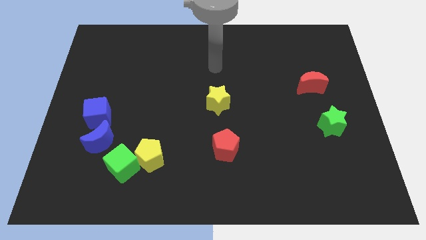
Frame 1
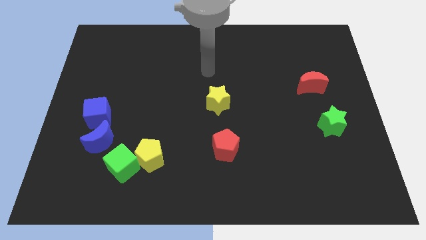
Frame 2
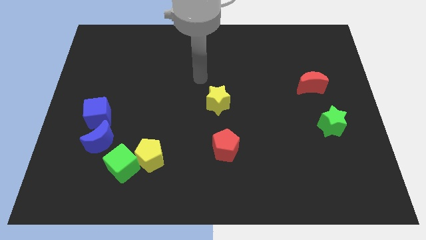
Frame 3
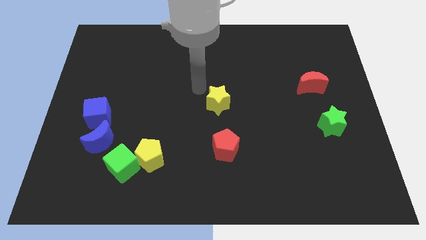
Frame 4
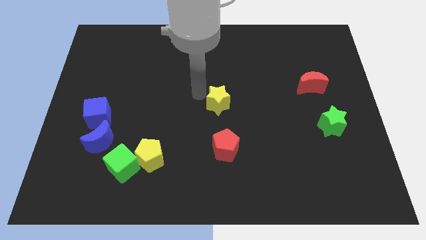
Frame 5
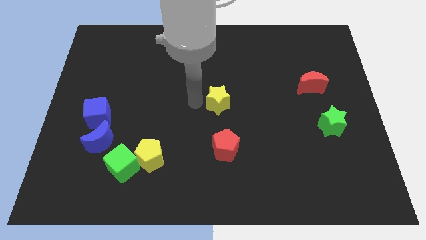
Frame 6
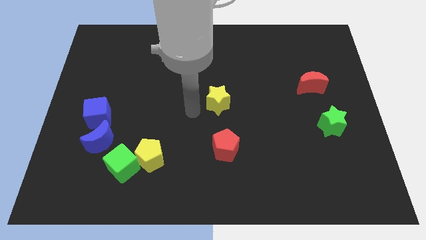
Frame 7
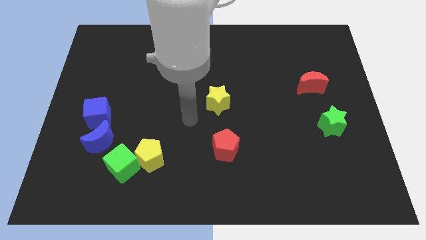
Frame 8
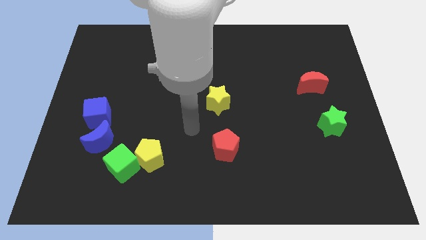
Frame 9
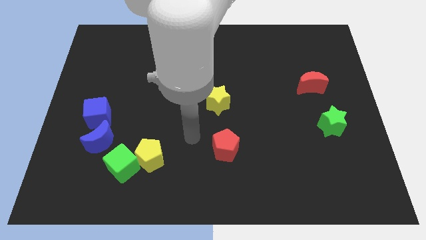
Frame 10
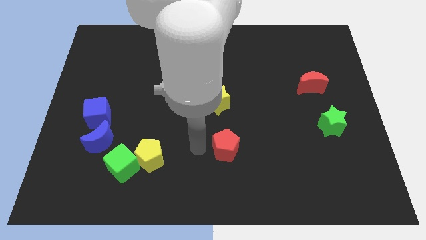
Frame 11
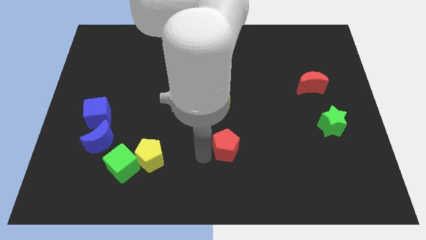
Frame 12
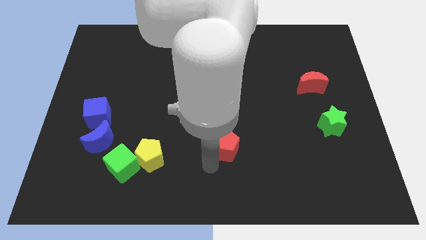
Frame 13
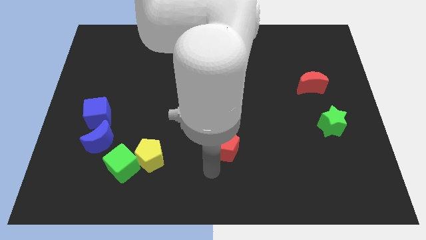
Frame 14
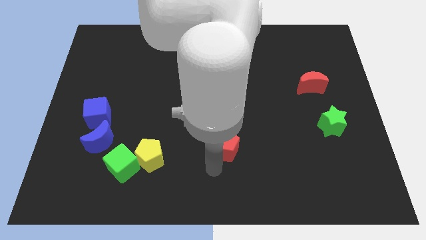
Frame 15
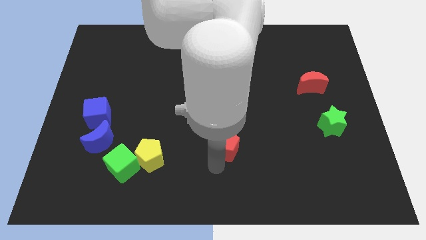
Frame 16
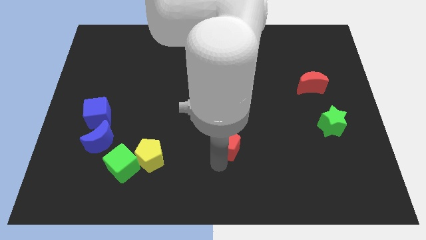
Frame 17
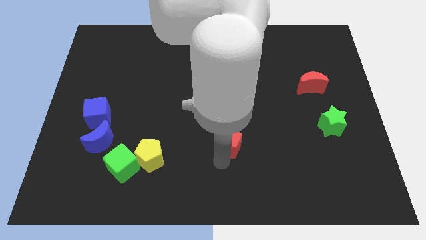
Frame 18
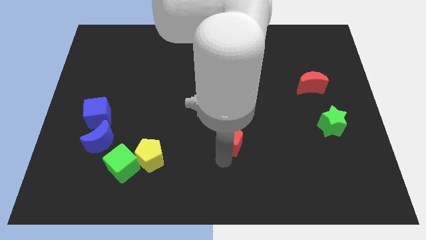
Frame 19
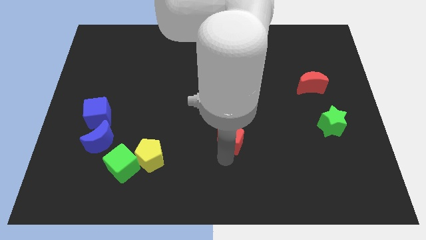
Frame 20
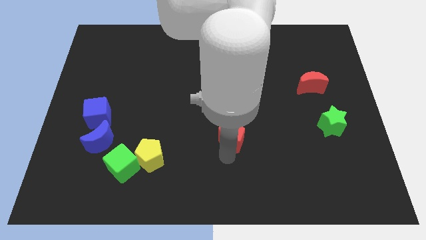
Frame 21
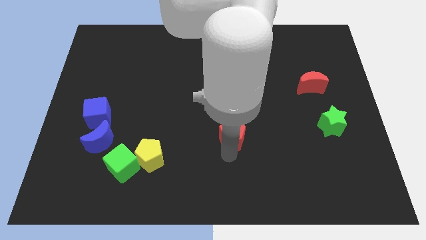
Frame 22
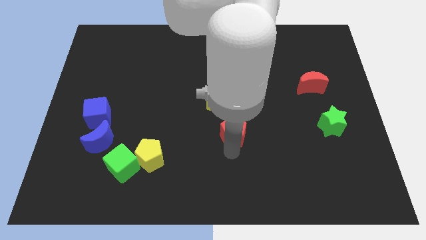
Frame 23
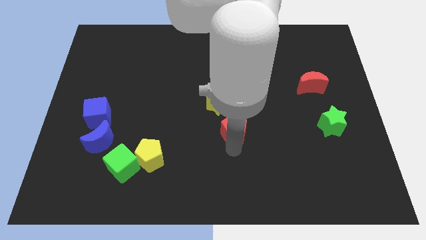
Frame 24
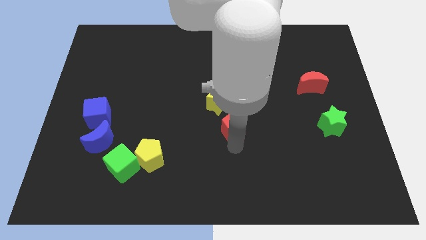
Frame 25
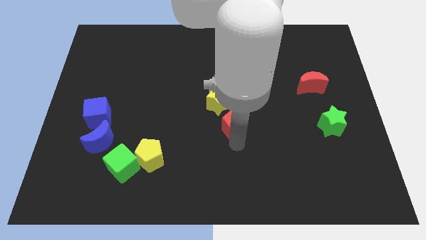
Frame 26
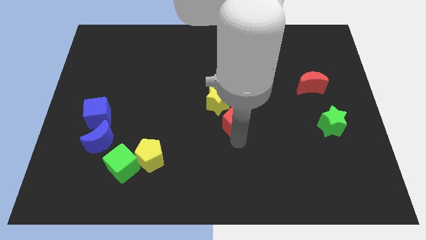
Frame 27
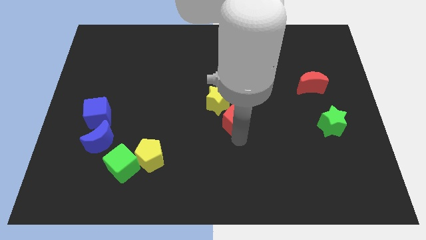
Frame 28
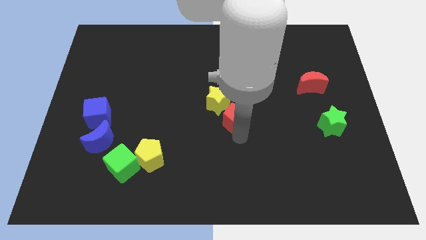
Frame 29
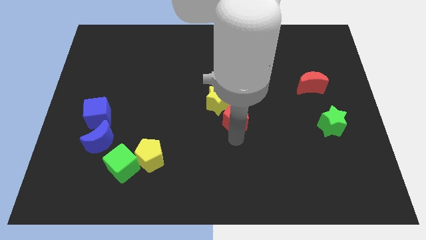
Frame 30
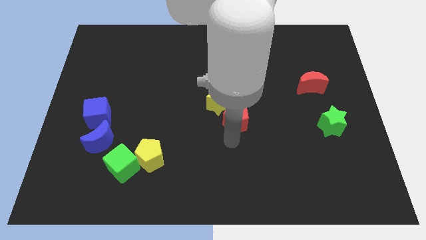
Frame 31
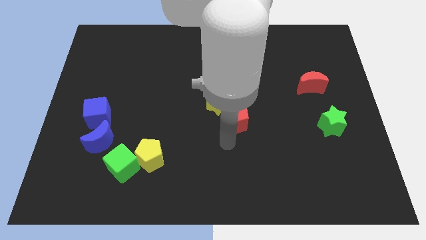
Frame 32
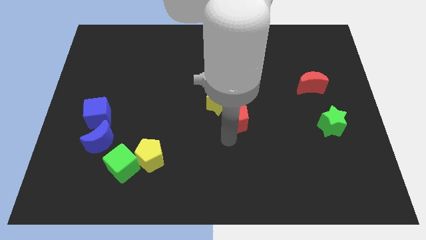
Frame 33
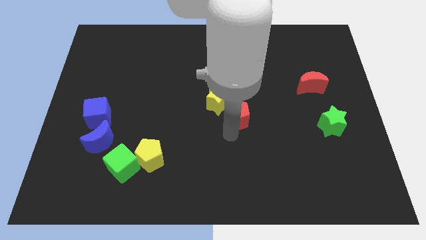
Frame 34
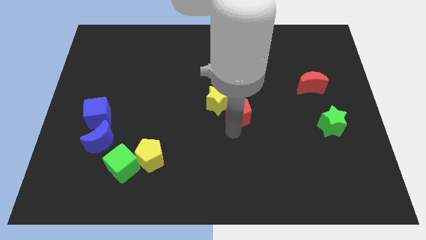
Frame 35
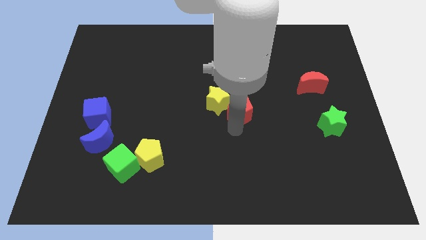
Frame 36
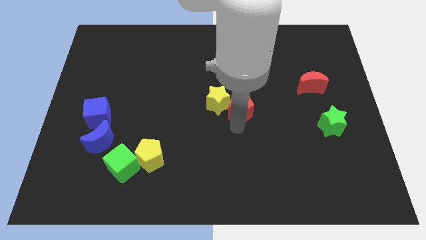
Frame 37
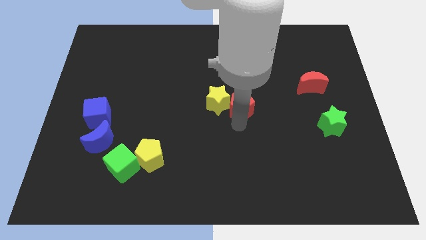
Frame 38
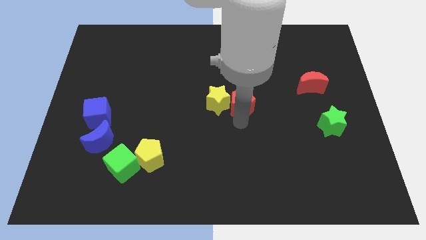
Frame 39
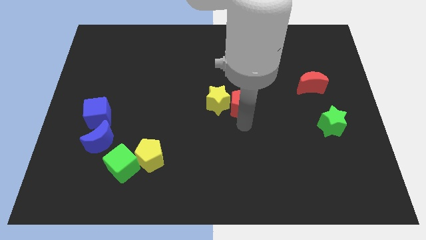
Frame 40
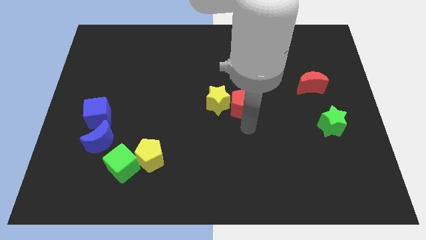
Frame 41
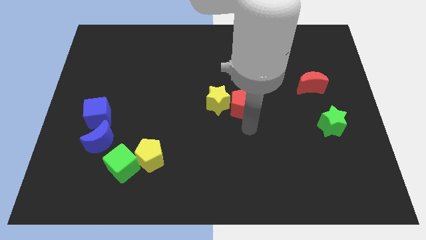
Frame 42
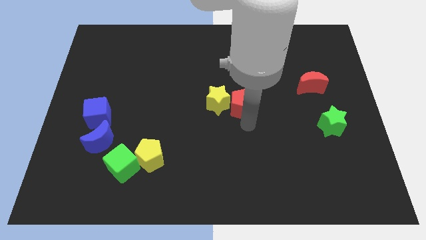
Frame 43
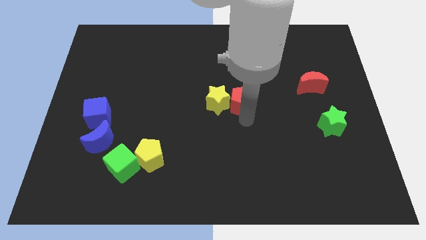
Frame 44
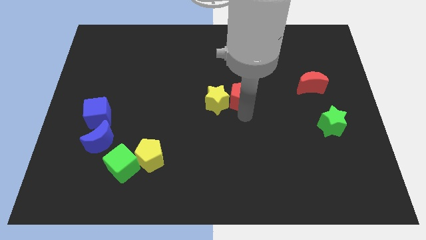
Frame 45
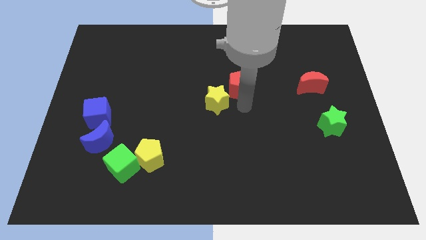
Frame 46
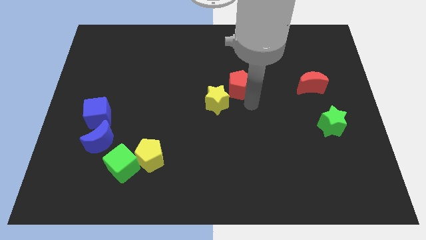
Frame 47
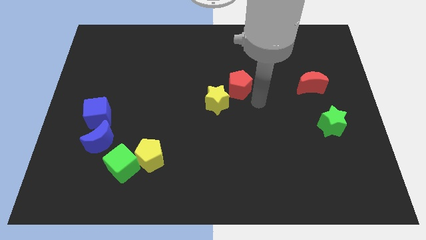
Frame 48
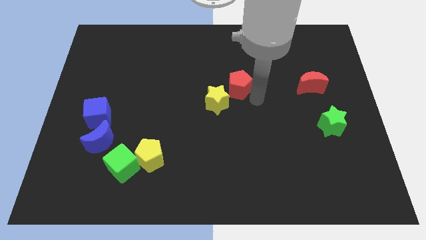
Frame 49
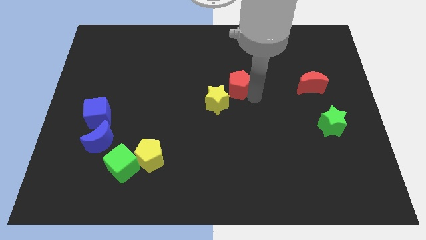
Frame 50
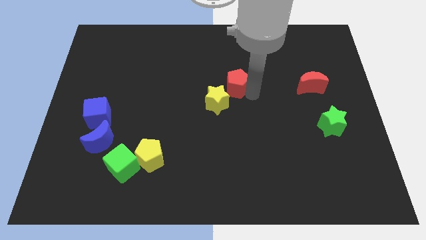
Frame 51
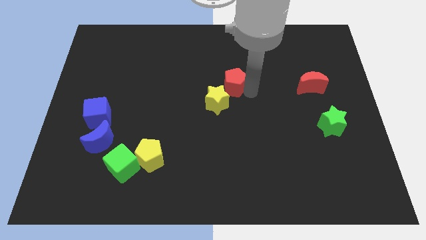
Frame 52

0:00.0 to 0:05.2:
slide the red pentagon above the yellow star

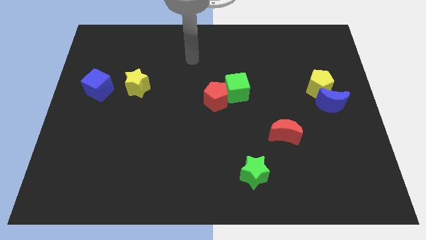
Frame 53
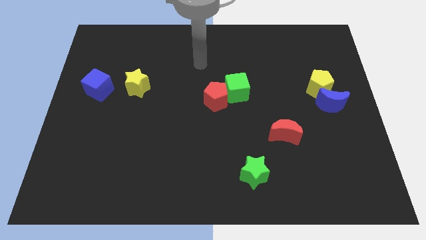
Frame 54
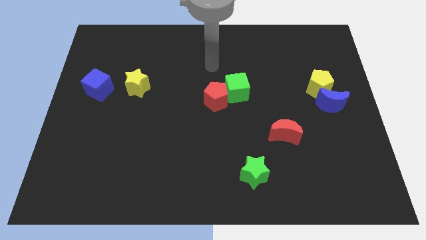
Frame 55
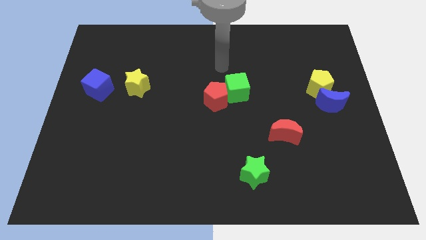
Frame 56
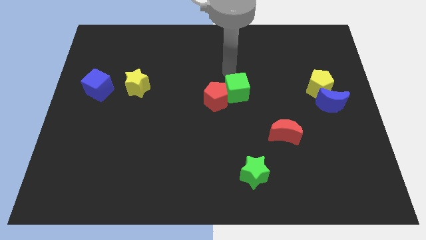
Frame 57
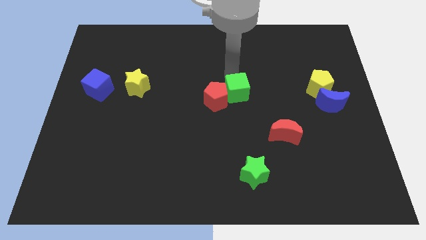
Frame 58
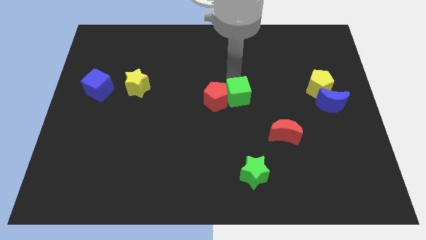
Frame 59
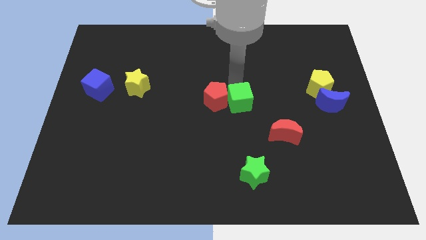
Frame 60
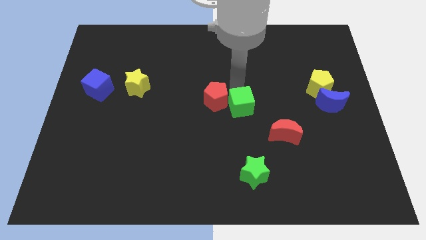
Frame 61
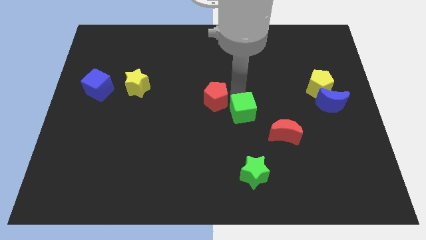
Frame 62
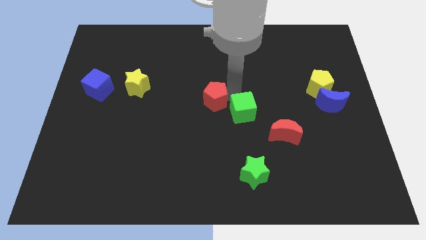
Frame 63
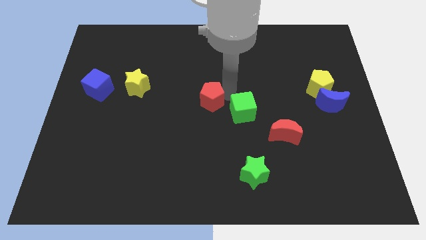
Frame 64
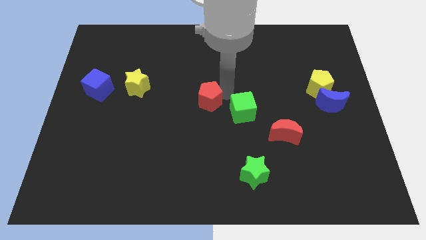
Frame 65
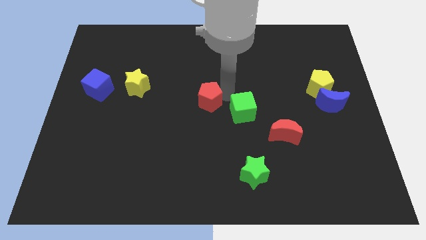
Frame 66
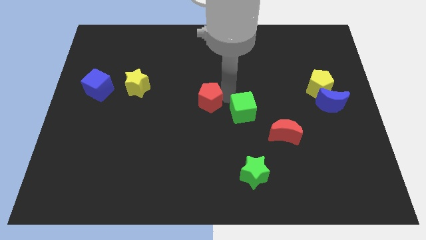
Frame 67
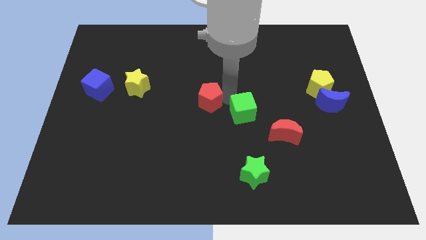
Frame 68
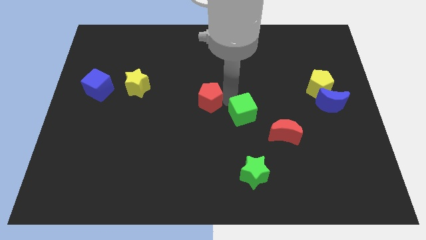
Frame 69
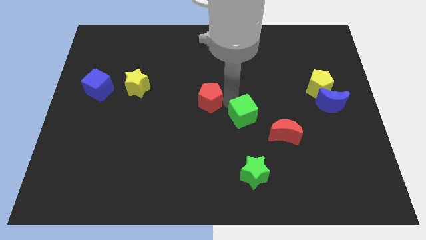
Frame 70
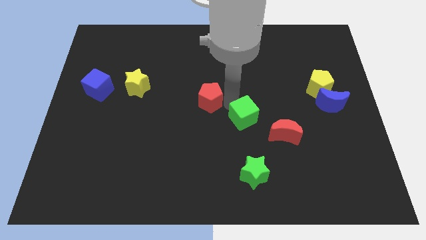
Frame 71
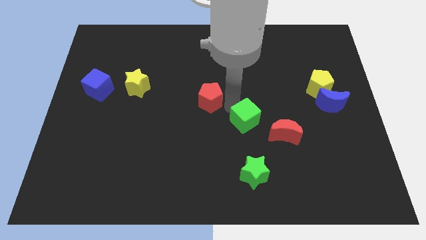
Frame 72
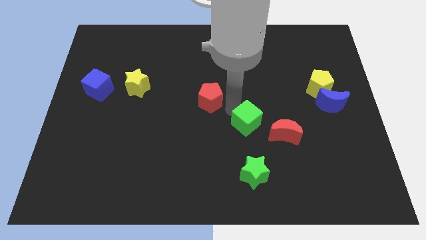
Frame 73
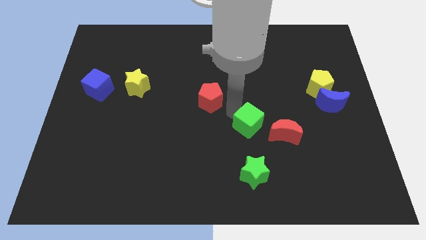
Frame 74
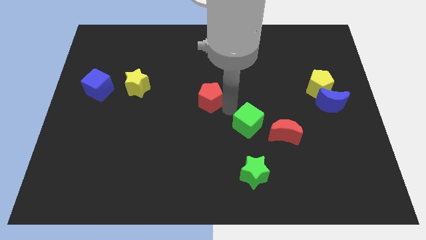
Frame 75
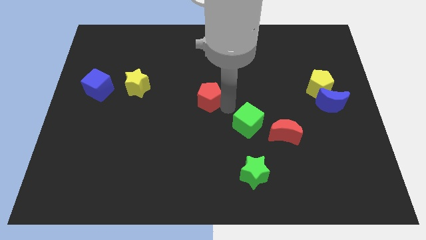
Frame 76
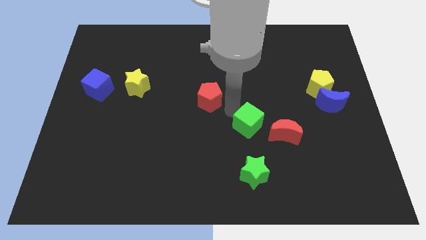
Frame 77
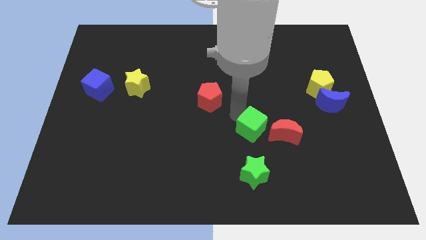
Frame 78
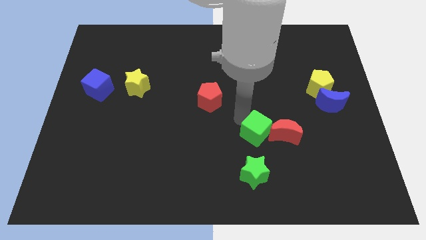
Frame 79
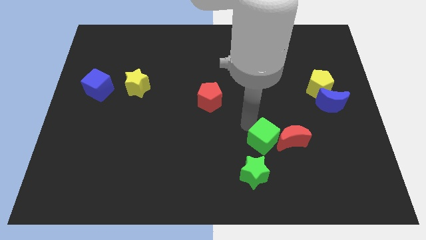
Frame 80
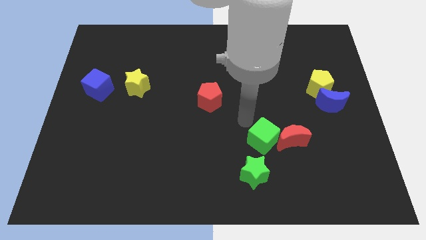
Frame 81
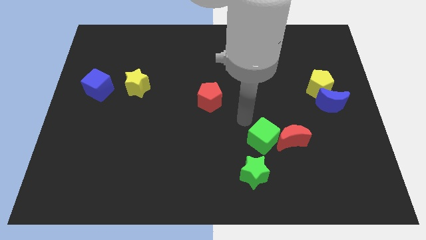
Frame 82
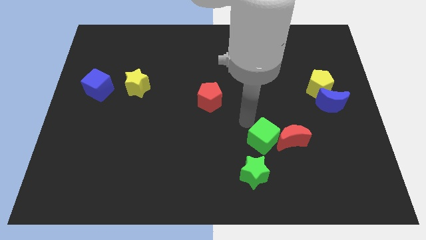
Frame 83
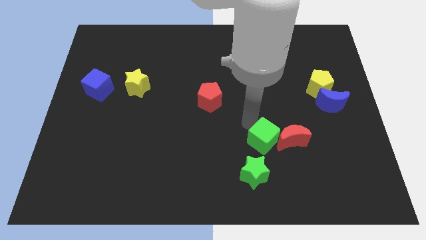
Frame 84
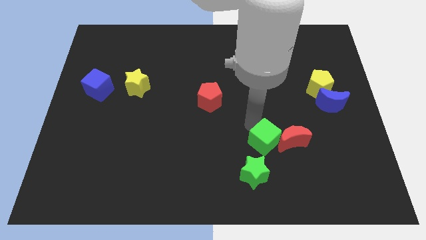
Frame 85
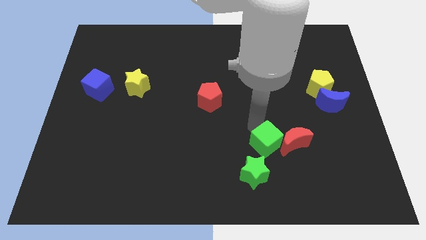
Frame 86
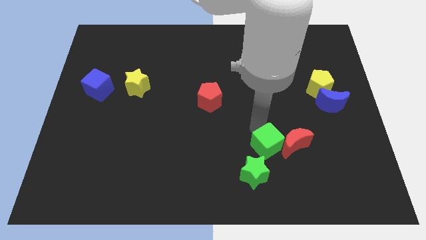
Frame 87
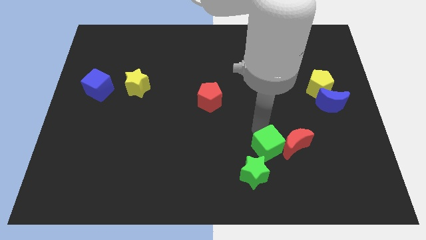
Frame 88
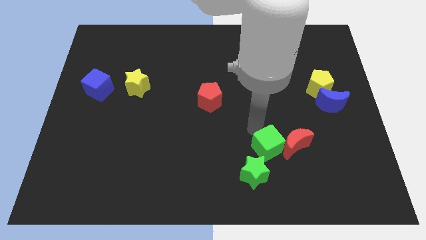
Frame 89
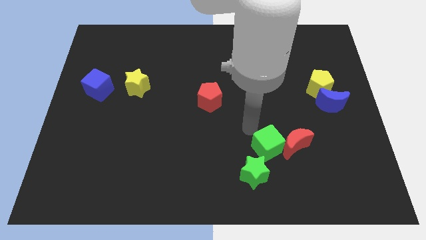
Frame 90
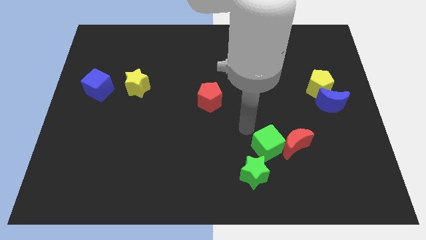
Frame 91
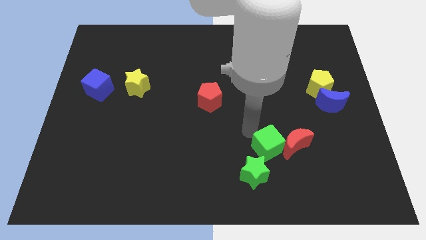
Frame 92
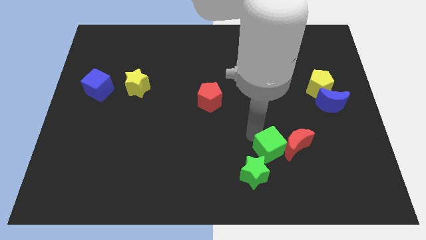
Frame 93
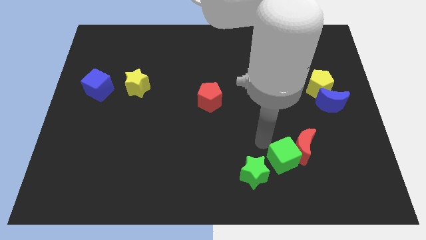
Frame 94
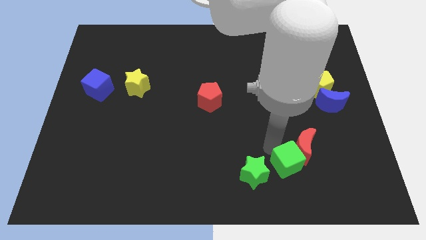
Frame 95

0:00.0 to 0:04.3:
move the green cube to the bottom of the red moon
